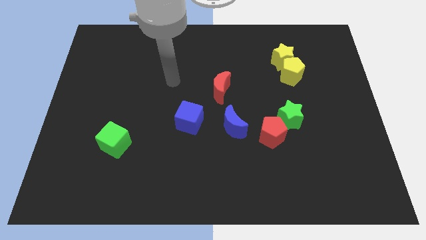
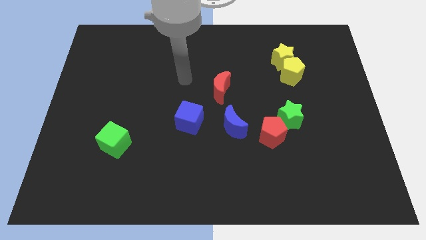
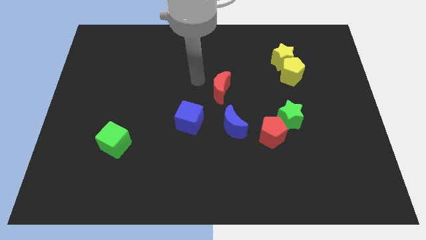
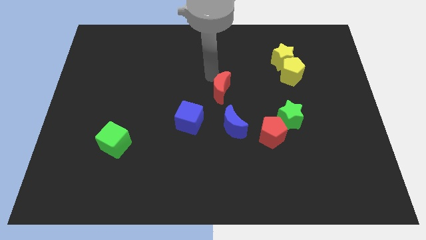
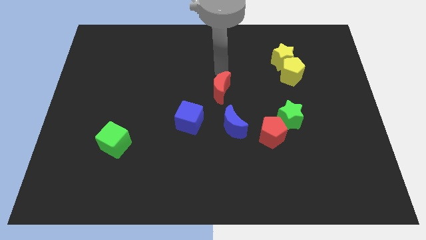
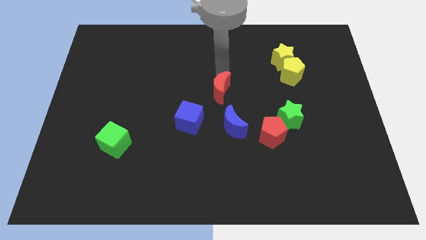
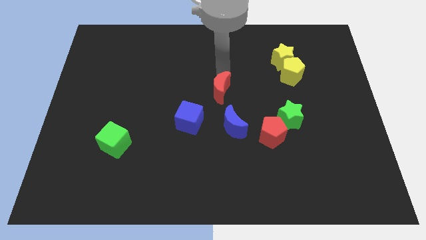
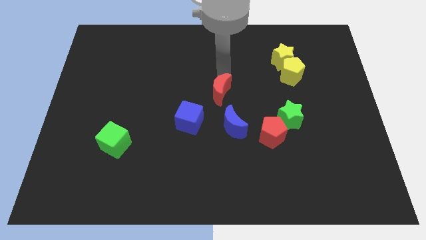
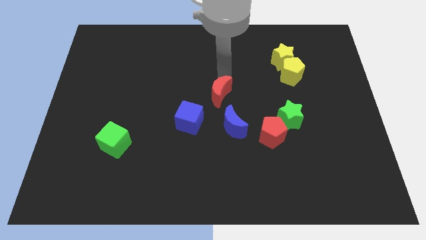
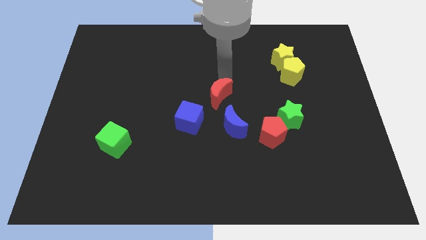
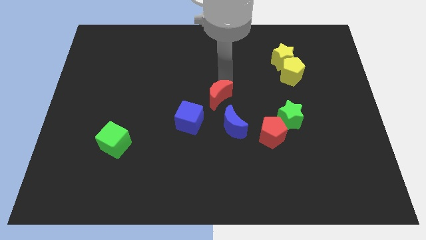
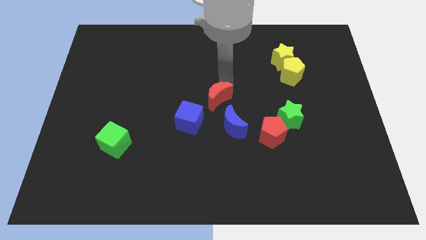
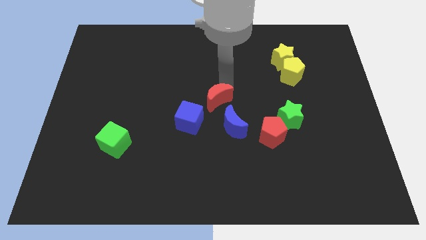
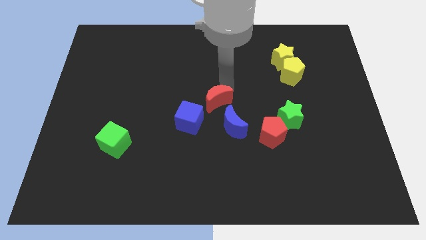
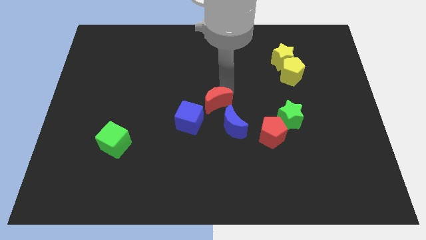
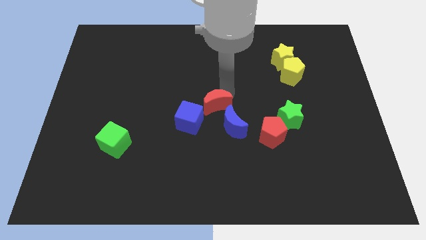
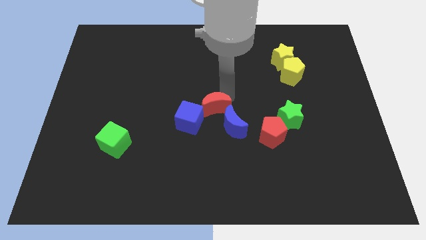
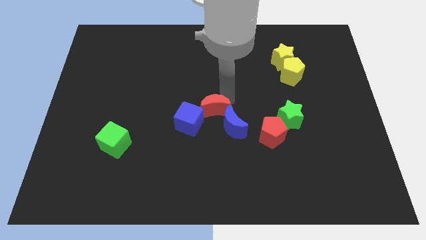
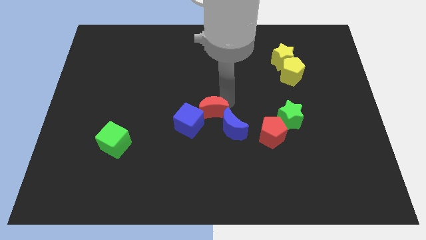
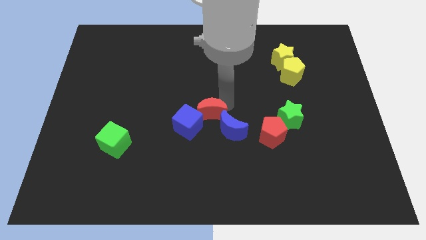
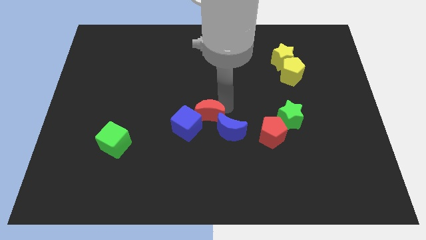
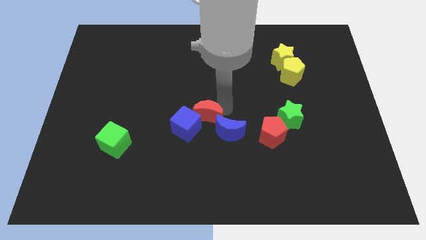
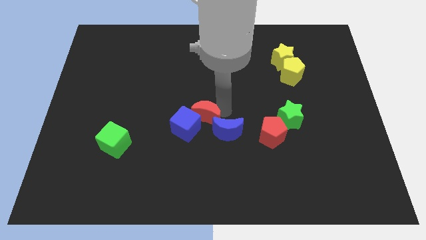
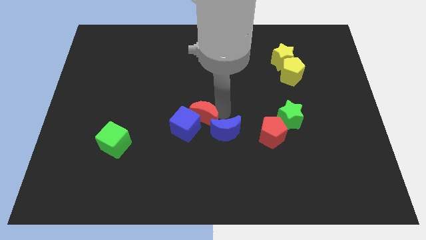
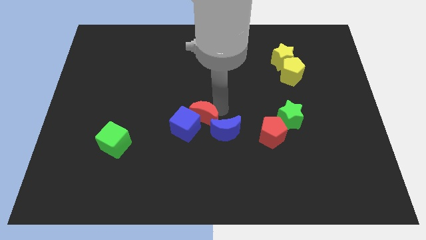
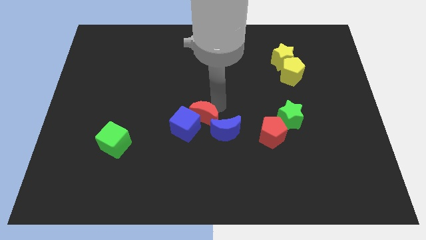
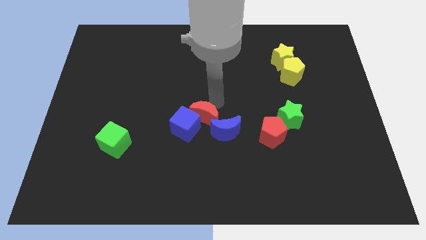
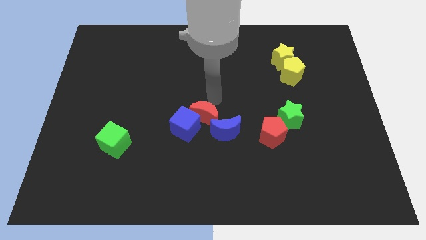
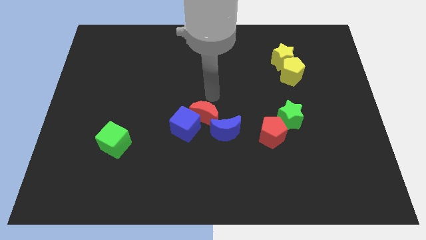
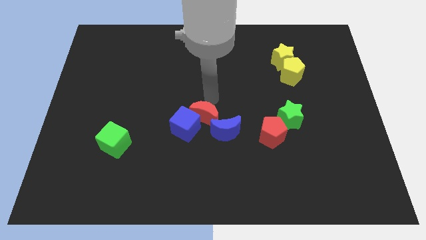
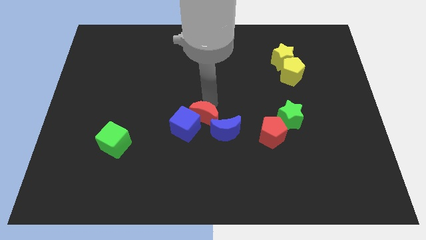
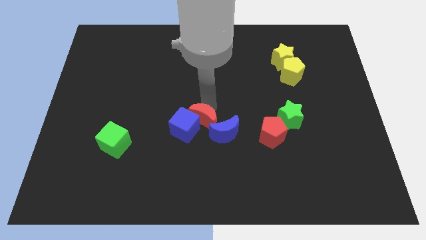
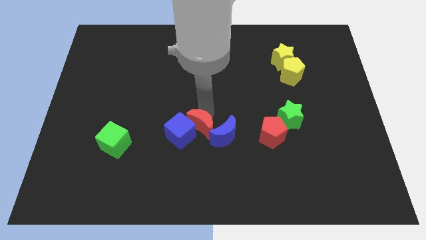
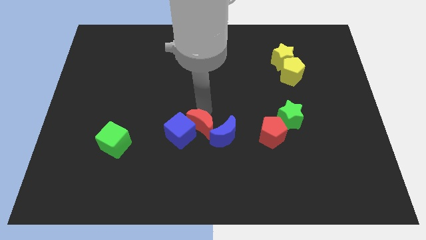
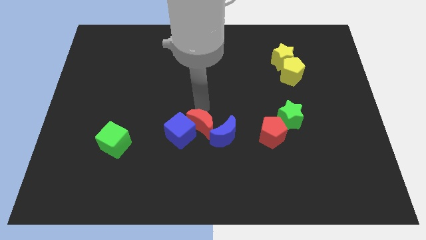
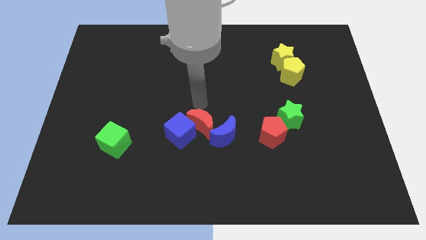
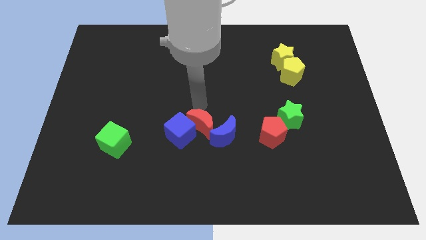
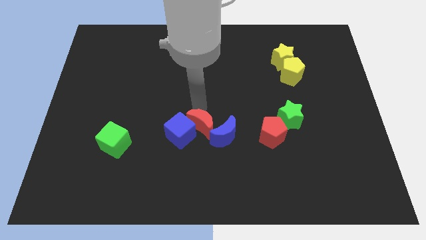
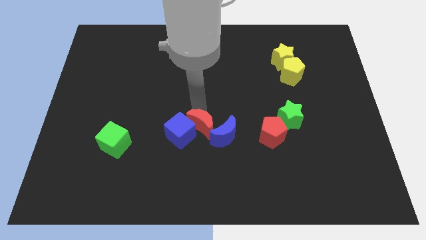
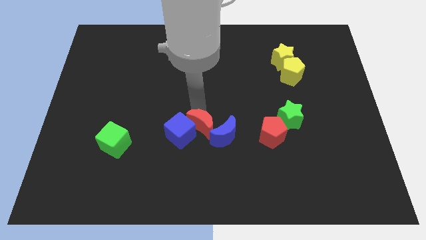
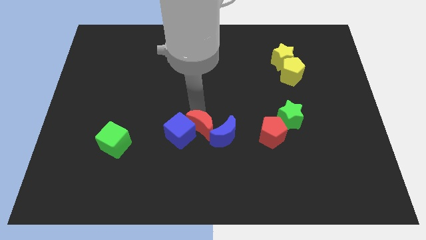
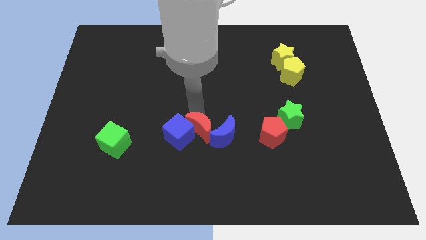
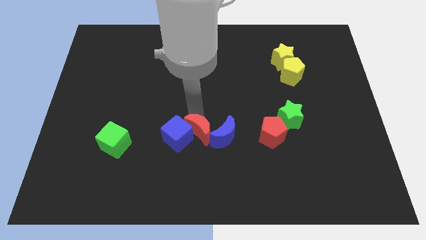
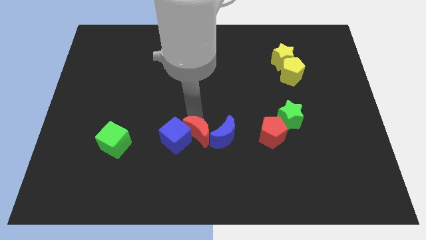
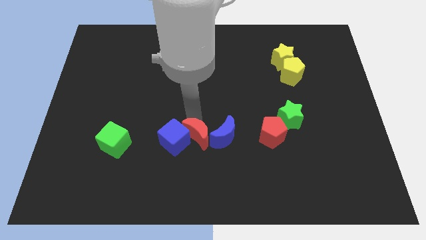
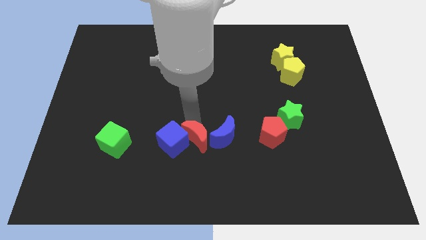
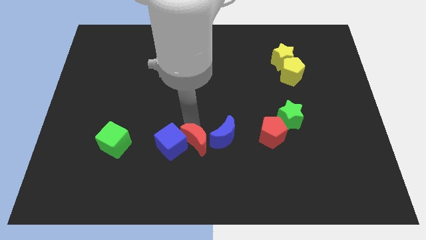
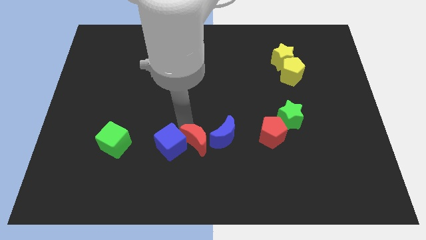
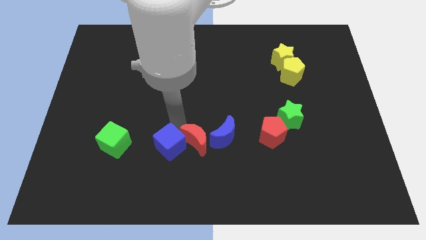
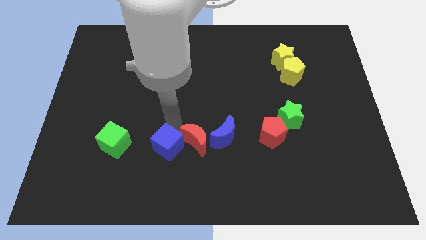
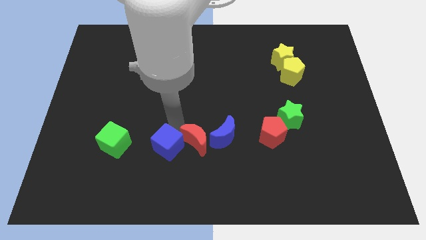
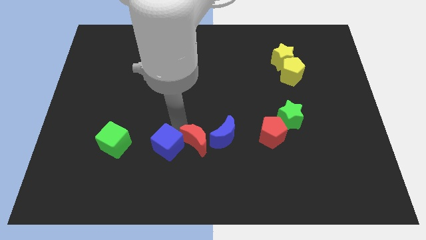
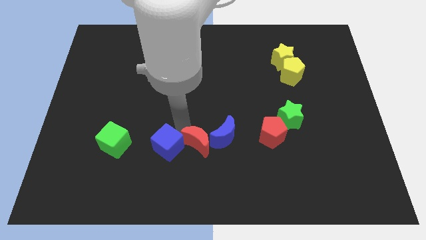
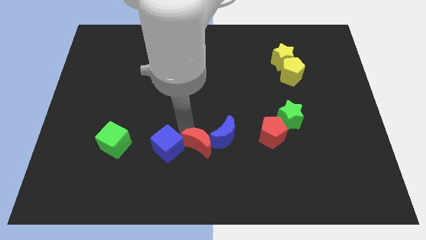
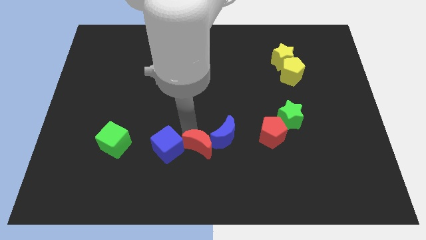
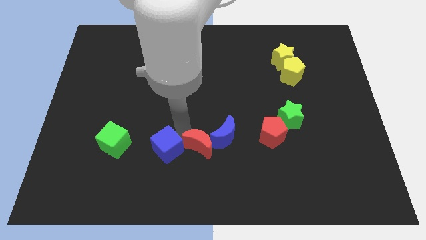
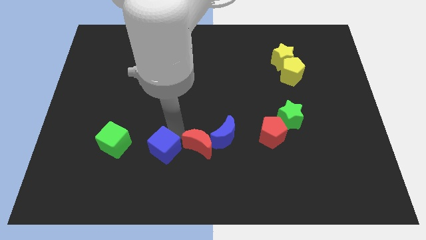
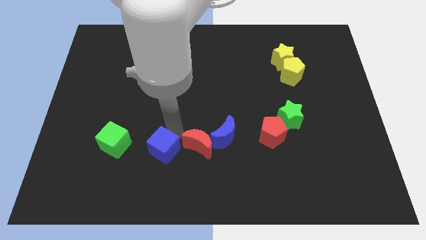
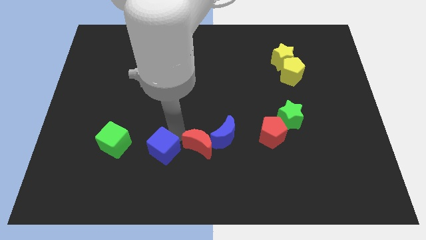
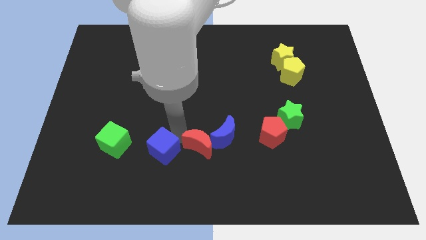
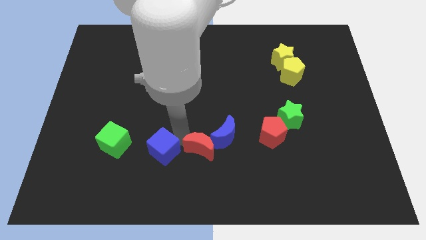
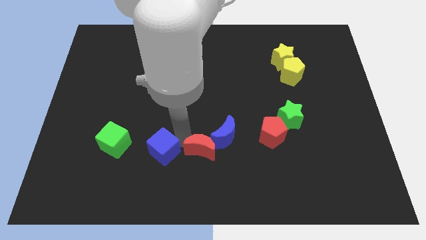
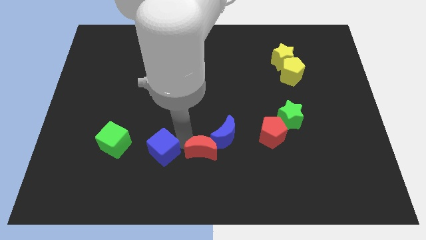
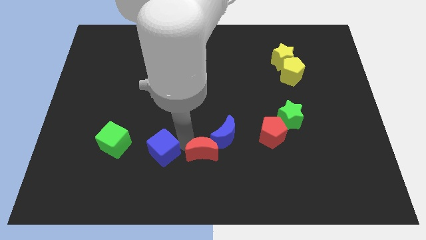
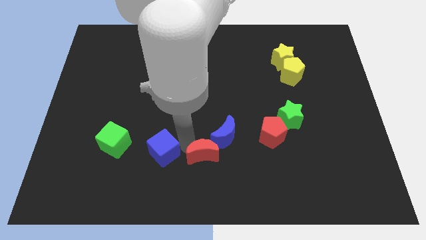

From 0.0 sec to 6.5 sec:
put the red moon to the bottom

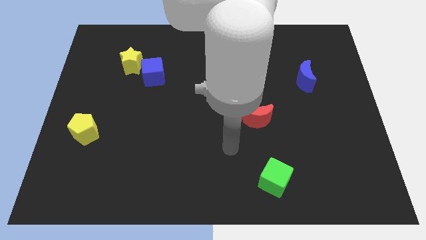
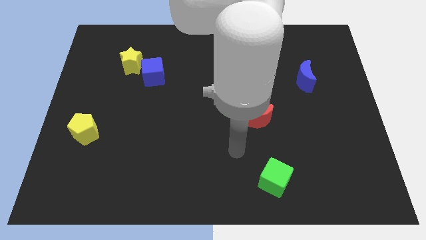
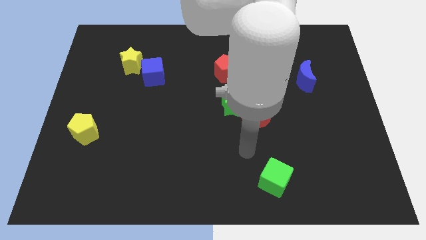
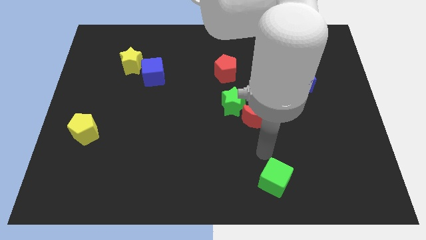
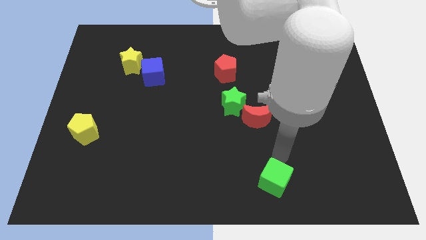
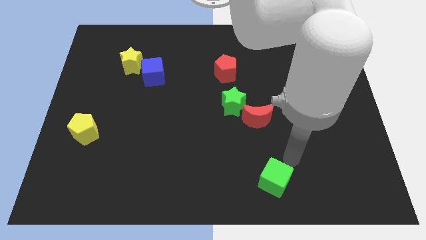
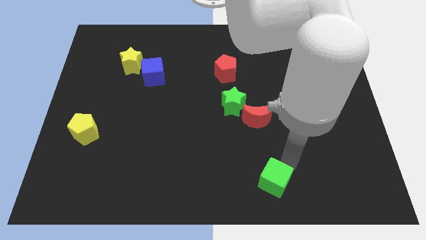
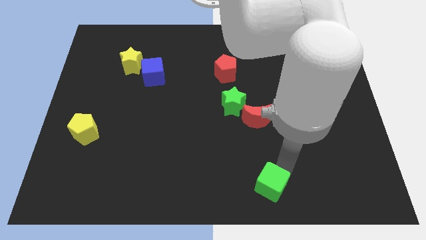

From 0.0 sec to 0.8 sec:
move the green cube to the bottom
